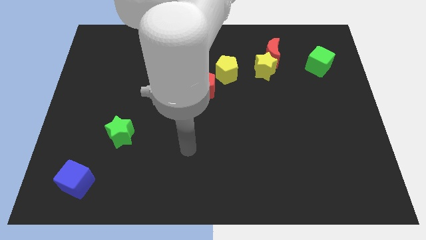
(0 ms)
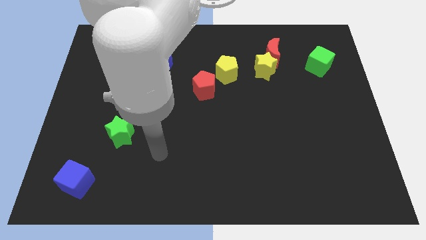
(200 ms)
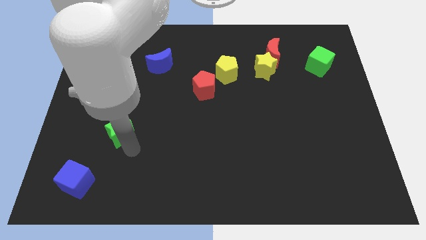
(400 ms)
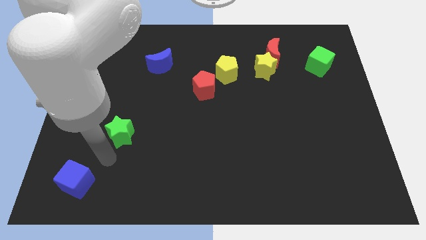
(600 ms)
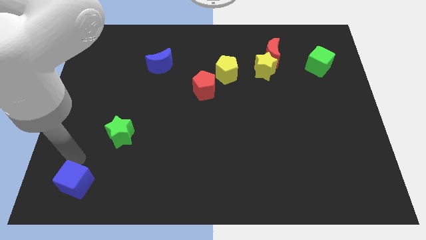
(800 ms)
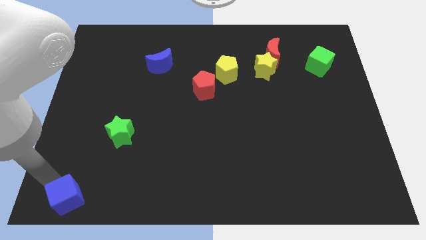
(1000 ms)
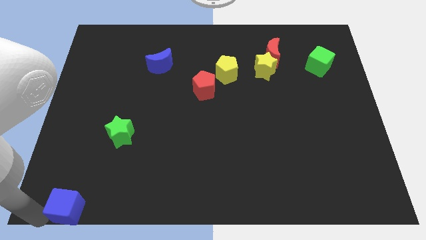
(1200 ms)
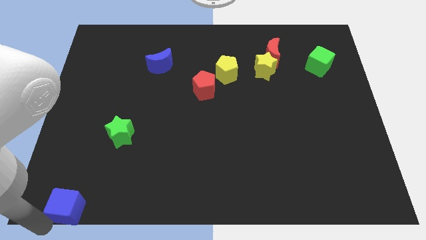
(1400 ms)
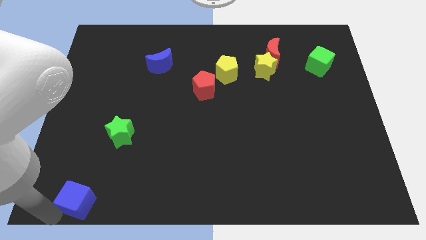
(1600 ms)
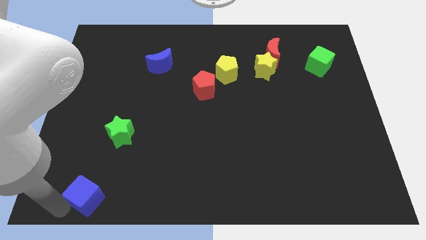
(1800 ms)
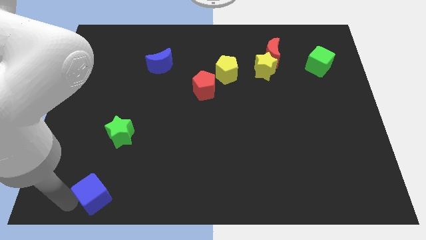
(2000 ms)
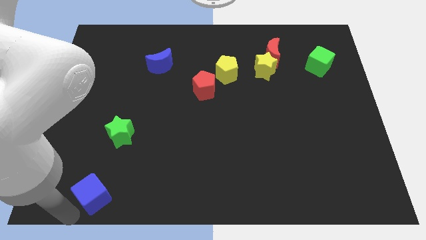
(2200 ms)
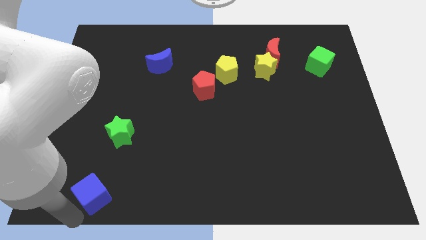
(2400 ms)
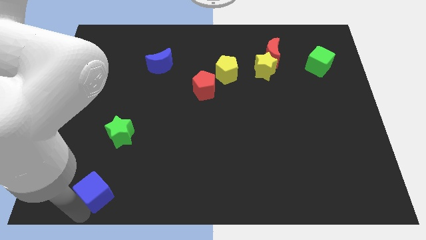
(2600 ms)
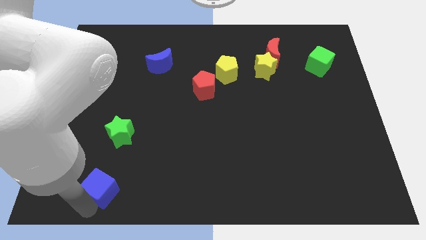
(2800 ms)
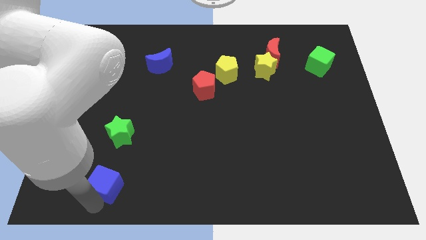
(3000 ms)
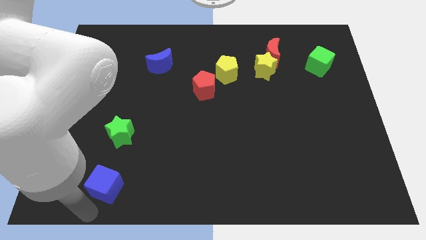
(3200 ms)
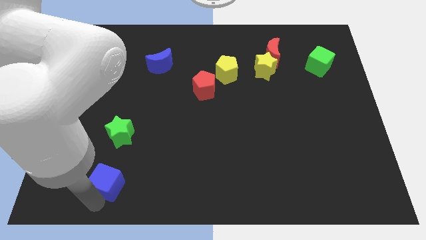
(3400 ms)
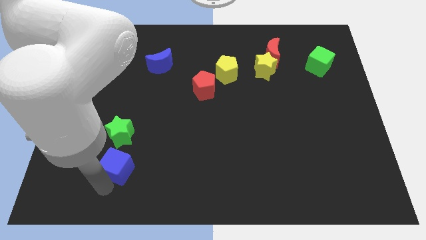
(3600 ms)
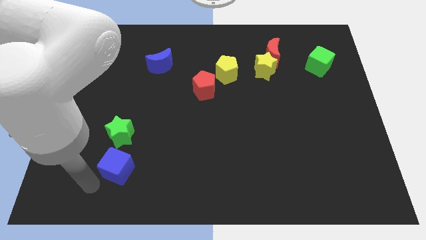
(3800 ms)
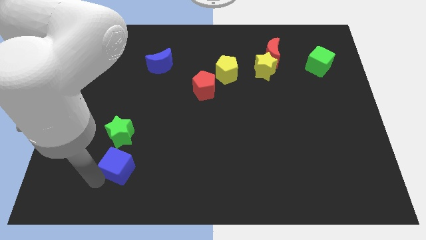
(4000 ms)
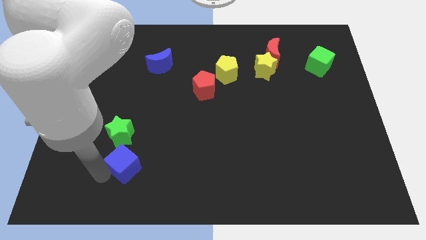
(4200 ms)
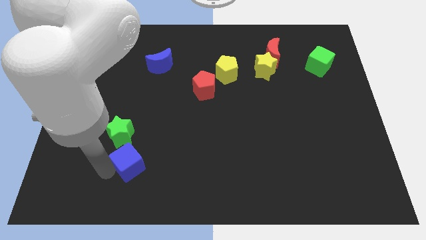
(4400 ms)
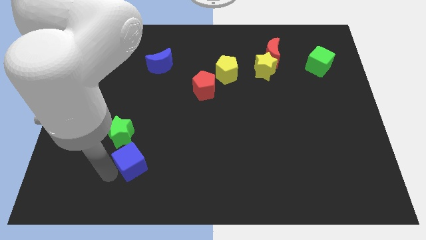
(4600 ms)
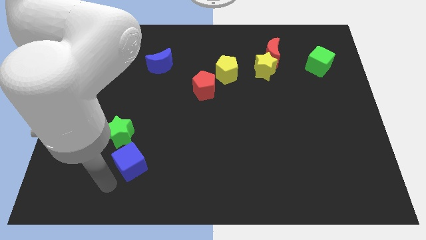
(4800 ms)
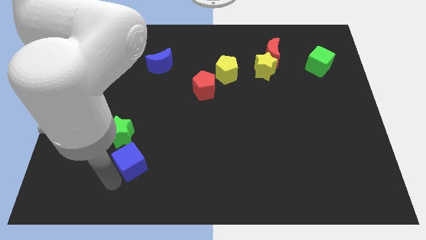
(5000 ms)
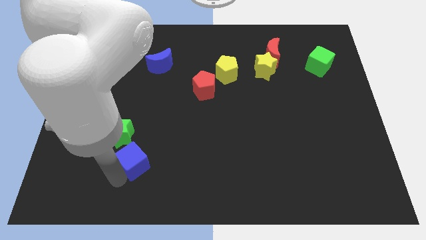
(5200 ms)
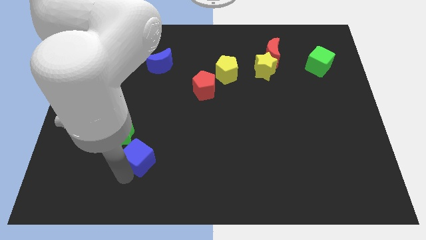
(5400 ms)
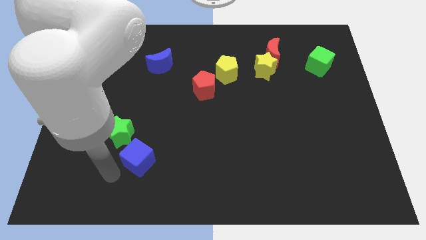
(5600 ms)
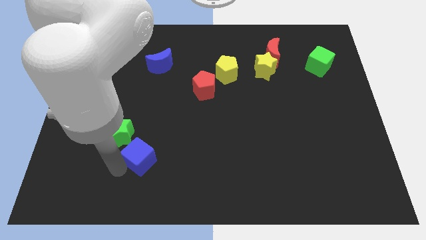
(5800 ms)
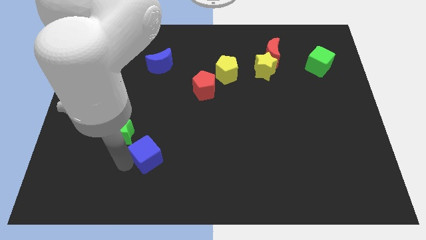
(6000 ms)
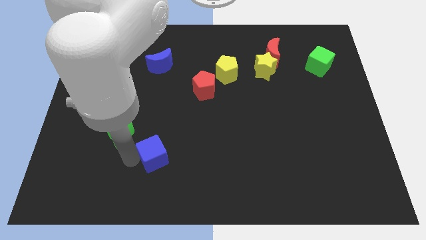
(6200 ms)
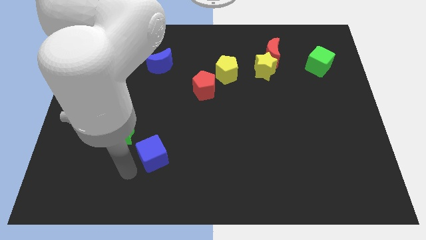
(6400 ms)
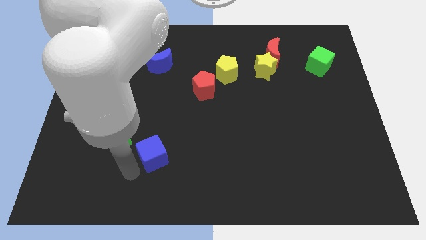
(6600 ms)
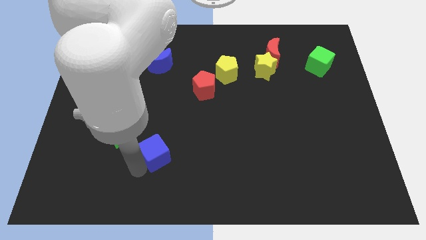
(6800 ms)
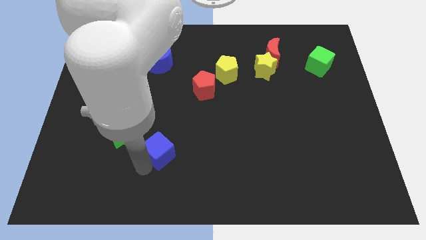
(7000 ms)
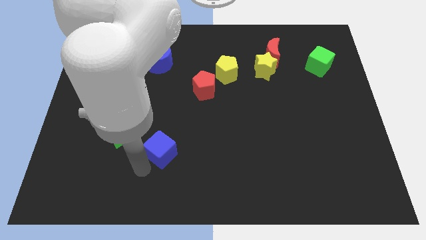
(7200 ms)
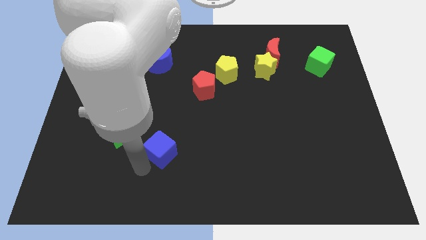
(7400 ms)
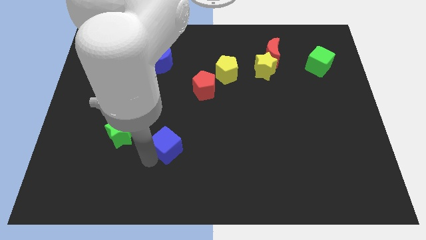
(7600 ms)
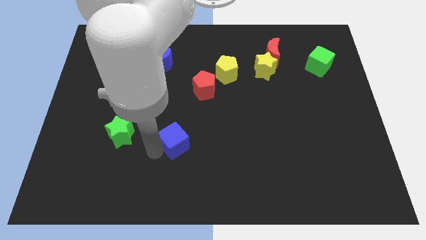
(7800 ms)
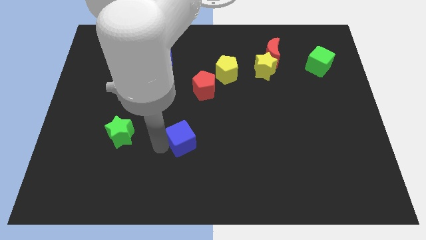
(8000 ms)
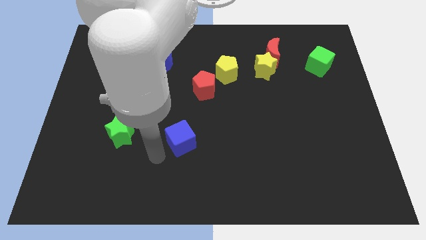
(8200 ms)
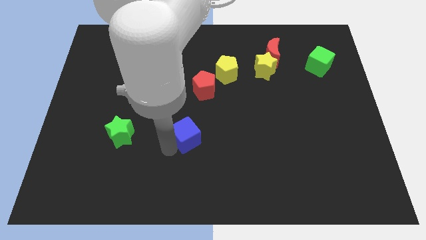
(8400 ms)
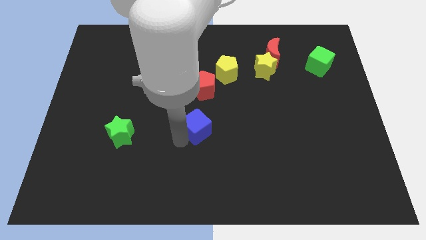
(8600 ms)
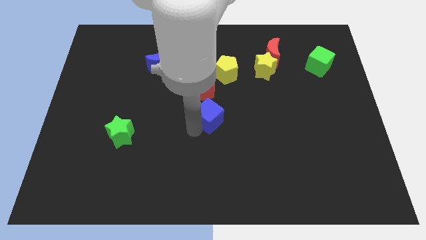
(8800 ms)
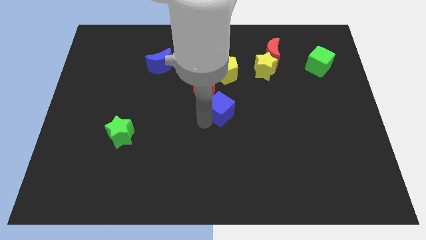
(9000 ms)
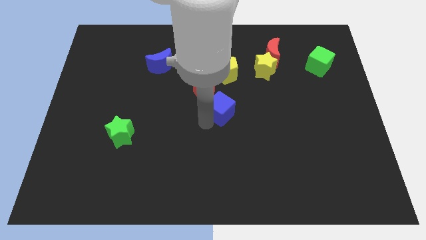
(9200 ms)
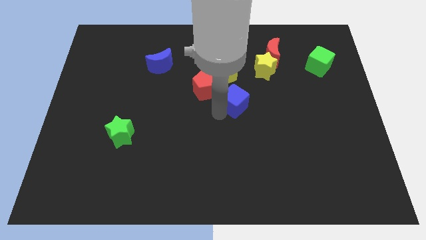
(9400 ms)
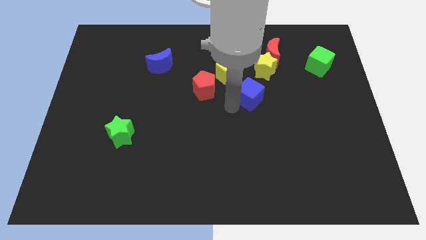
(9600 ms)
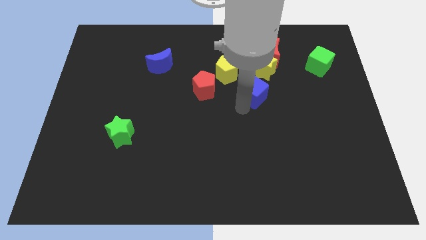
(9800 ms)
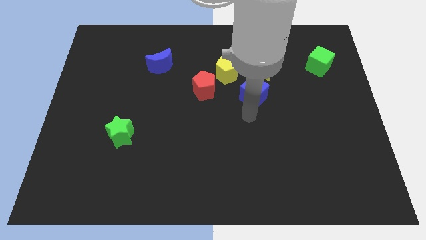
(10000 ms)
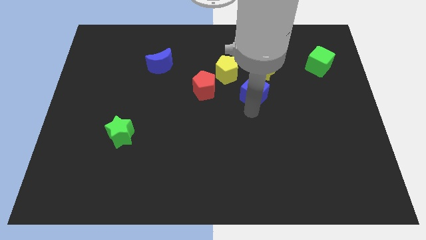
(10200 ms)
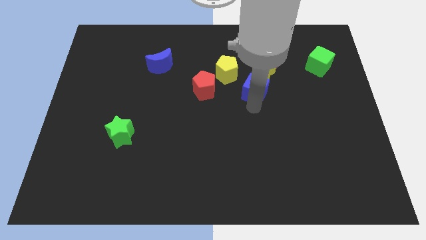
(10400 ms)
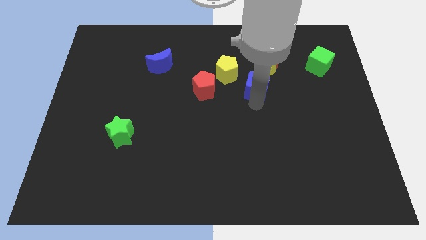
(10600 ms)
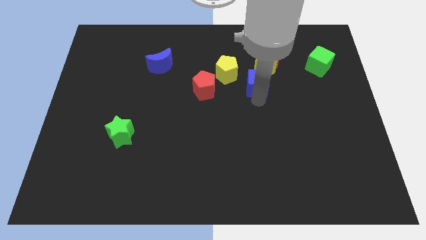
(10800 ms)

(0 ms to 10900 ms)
slide the blue cube to the yellow star

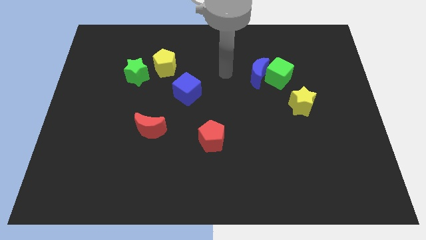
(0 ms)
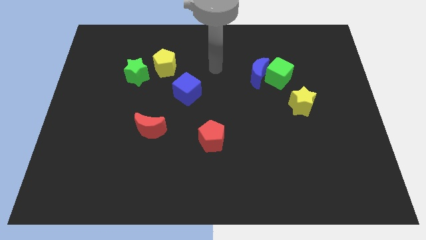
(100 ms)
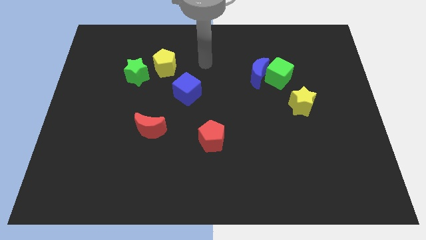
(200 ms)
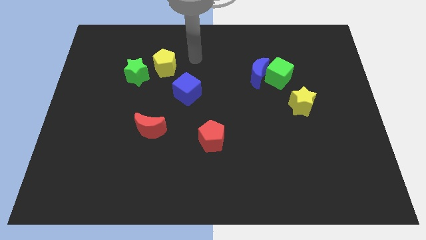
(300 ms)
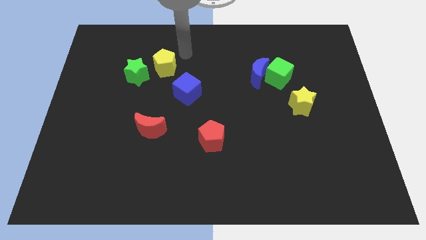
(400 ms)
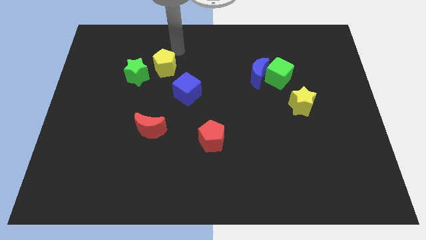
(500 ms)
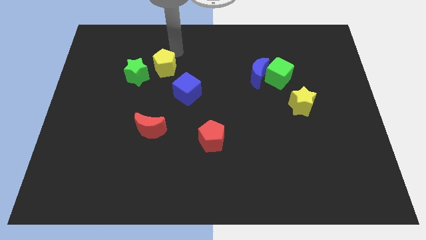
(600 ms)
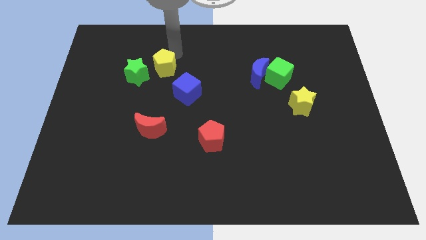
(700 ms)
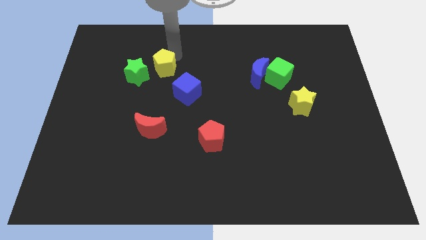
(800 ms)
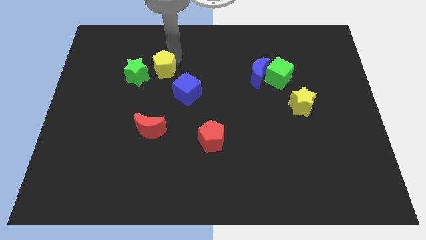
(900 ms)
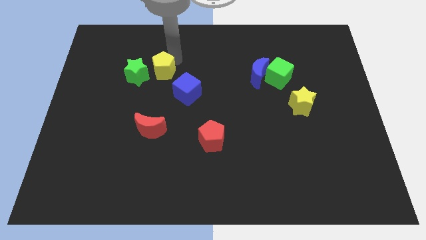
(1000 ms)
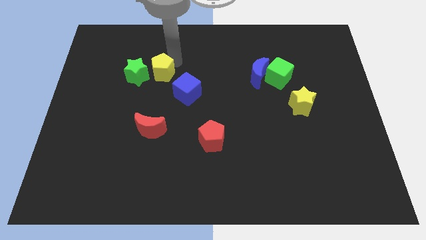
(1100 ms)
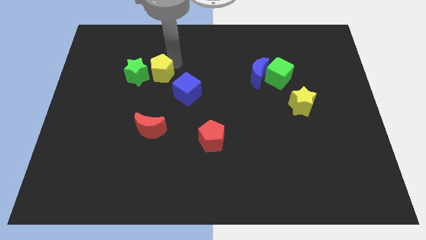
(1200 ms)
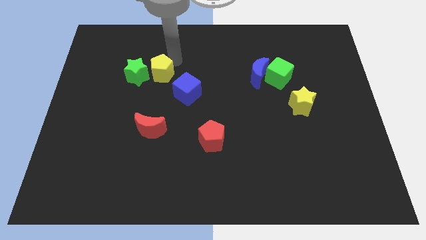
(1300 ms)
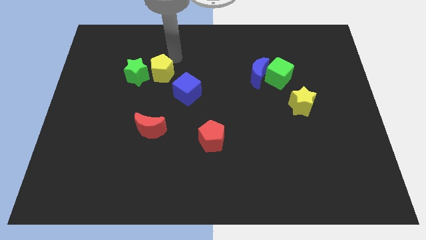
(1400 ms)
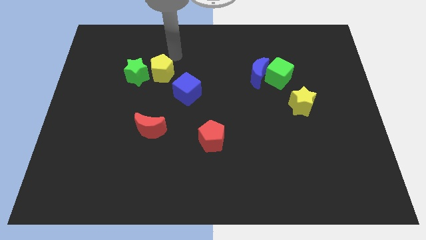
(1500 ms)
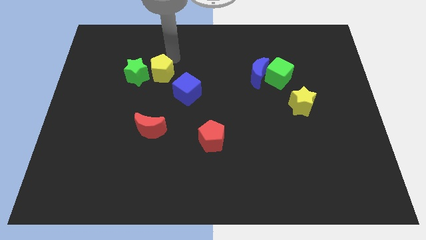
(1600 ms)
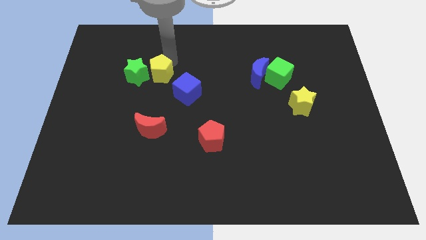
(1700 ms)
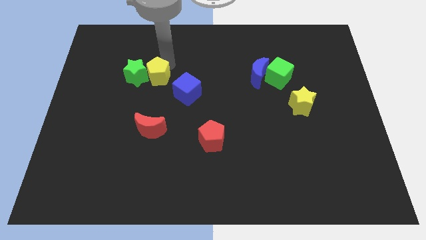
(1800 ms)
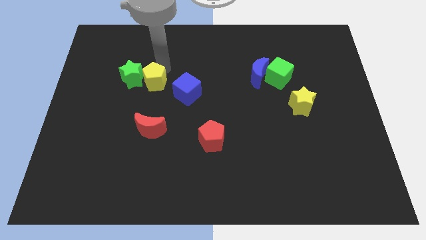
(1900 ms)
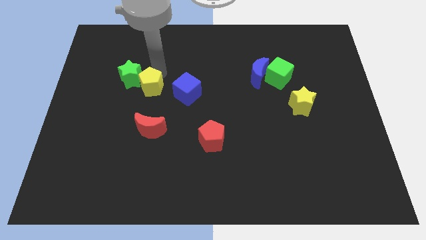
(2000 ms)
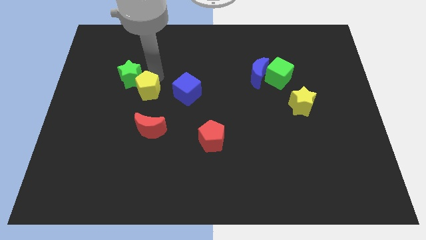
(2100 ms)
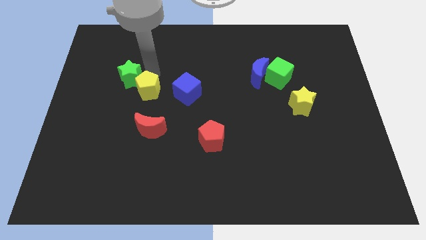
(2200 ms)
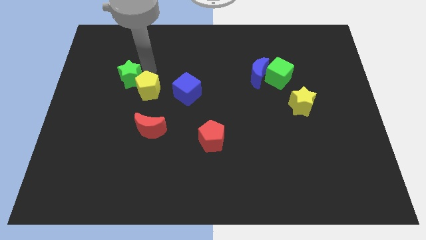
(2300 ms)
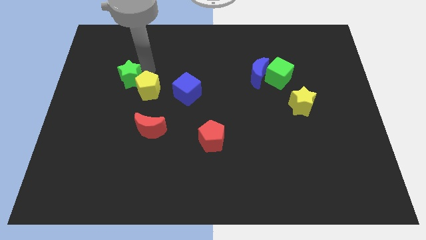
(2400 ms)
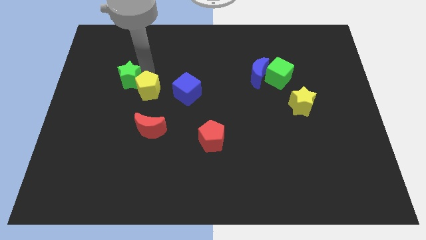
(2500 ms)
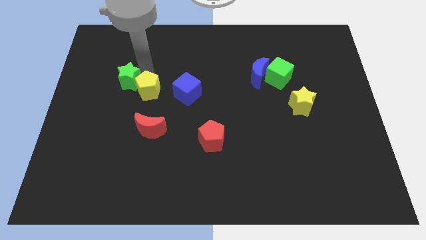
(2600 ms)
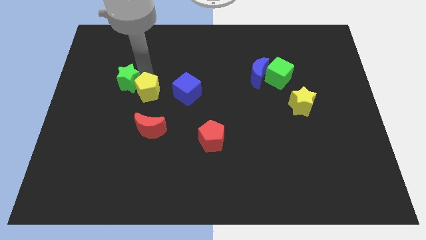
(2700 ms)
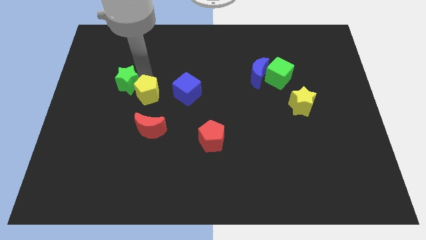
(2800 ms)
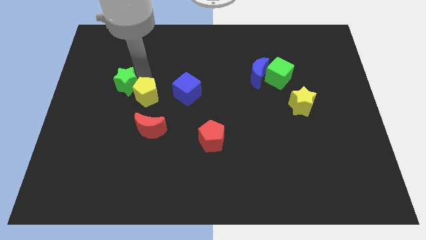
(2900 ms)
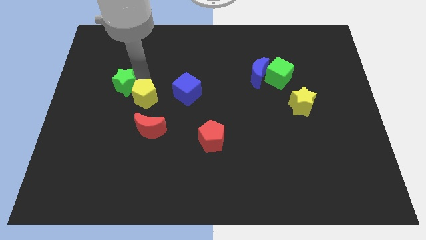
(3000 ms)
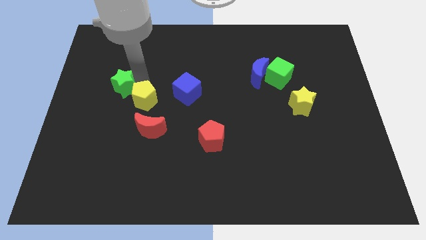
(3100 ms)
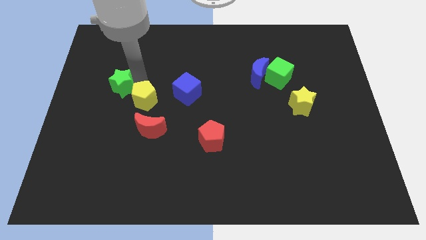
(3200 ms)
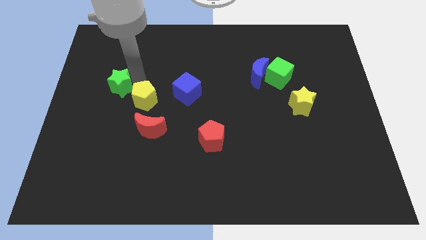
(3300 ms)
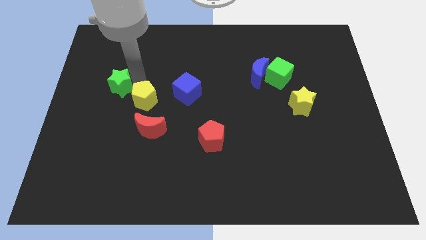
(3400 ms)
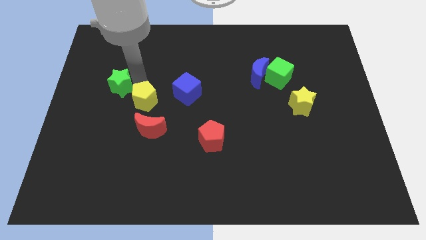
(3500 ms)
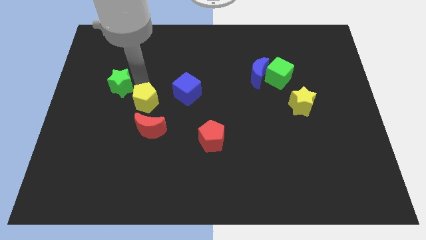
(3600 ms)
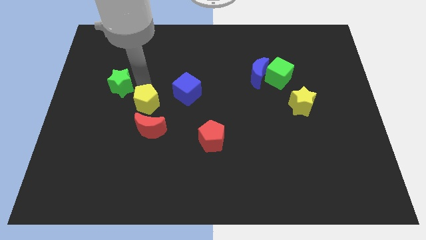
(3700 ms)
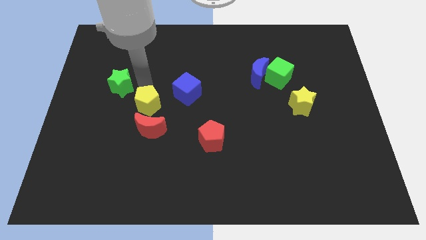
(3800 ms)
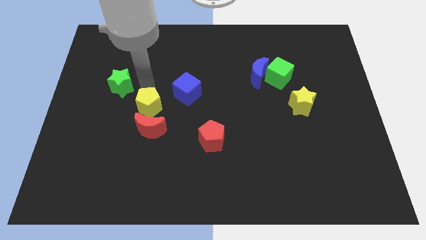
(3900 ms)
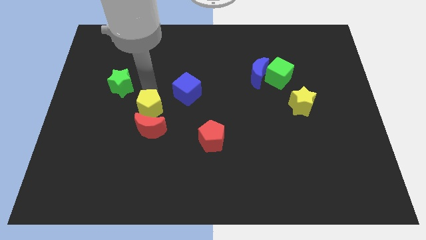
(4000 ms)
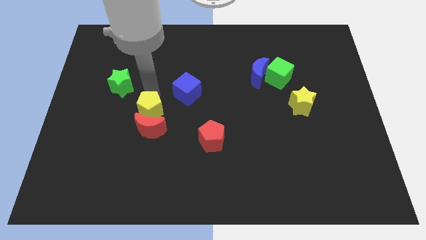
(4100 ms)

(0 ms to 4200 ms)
push the yellow pentagon to the red moon
